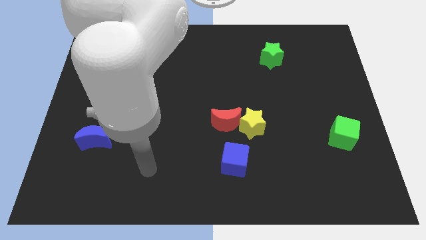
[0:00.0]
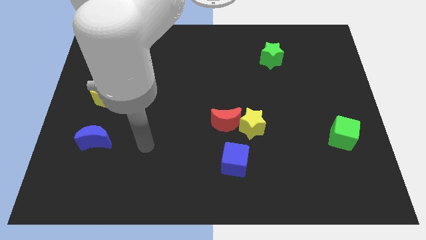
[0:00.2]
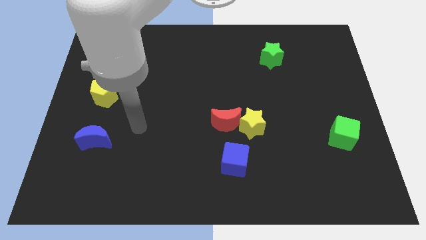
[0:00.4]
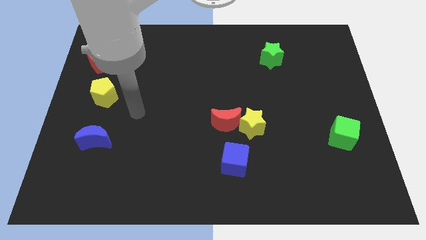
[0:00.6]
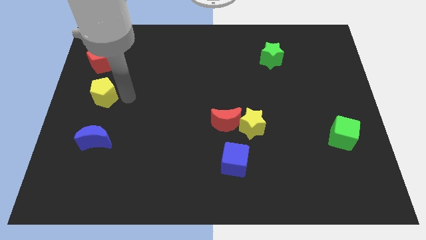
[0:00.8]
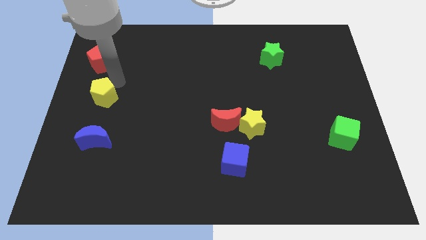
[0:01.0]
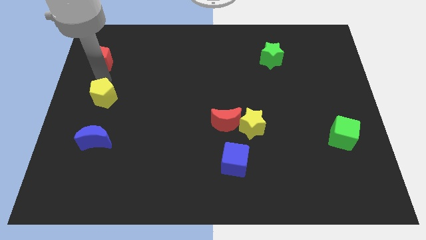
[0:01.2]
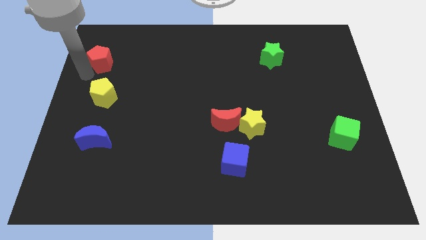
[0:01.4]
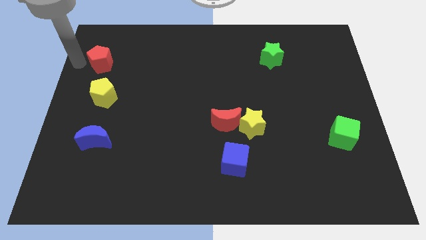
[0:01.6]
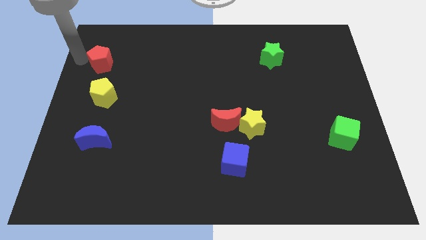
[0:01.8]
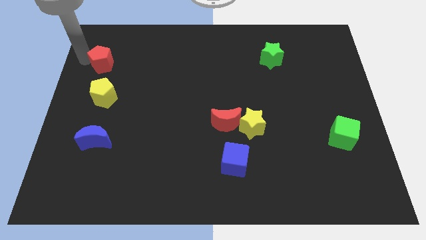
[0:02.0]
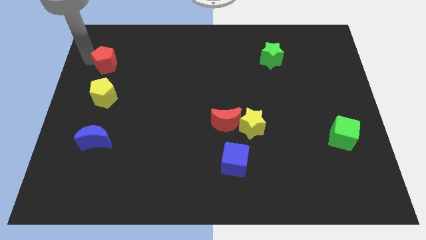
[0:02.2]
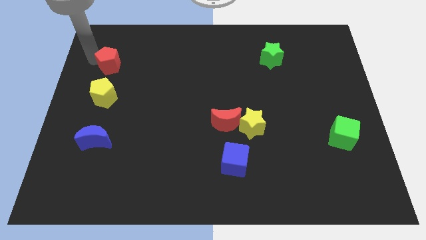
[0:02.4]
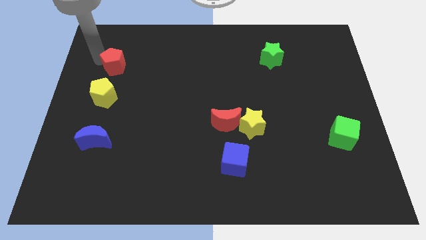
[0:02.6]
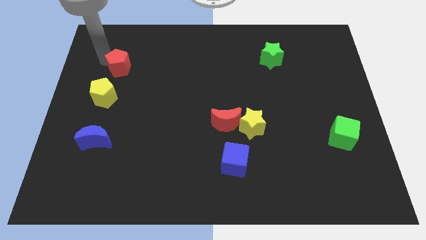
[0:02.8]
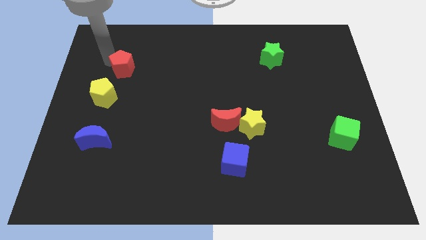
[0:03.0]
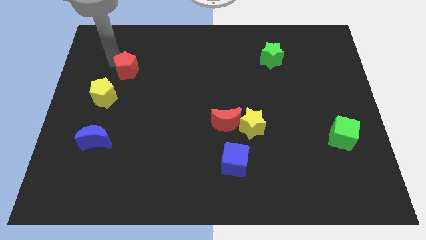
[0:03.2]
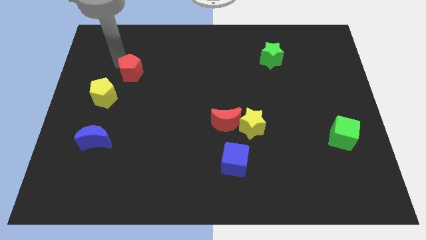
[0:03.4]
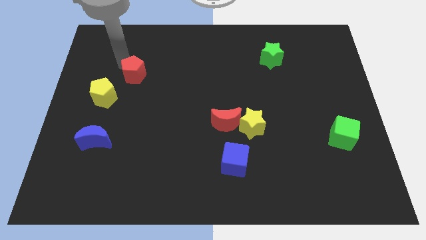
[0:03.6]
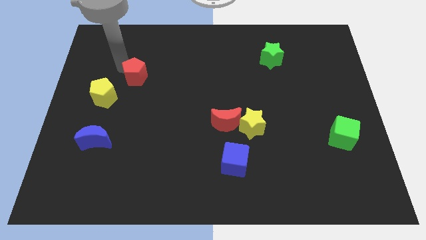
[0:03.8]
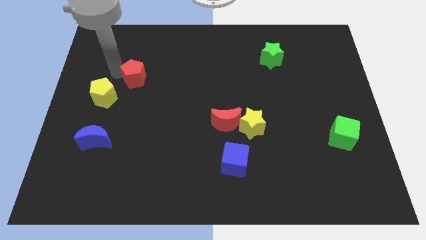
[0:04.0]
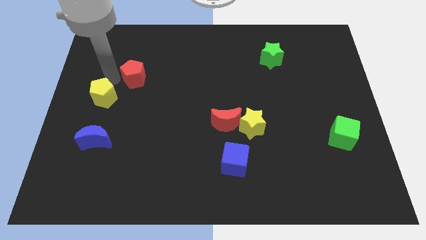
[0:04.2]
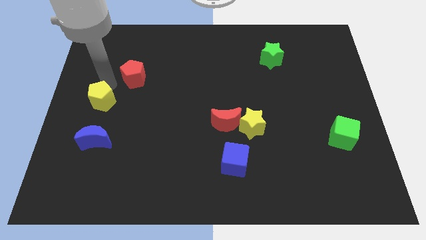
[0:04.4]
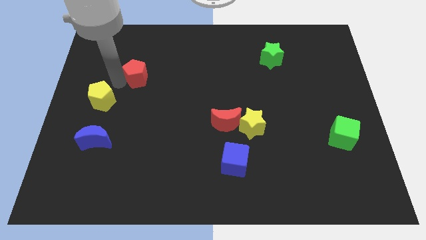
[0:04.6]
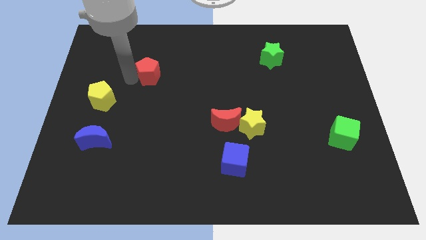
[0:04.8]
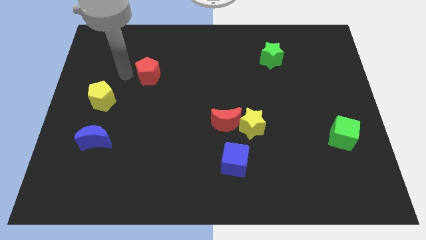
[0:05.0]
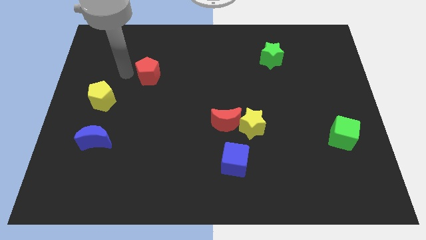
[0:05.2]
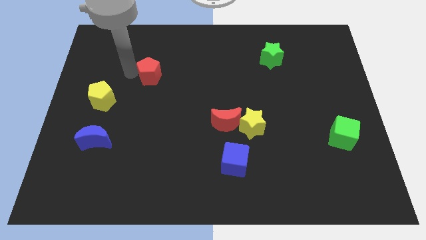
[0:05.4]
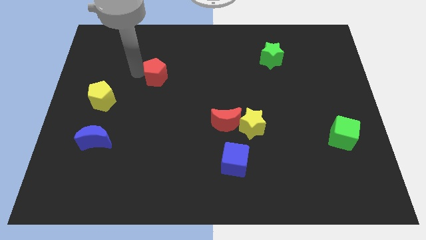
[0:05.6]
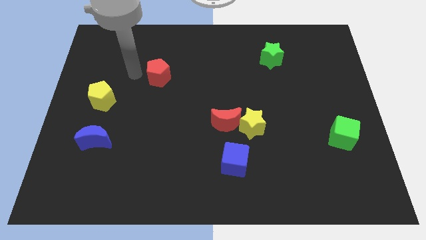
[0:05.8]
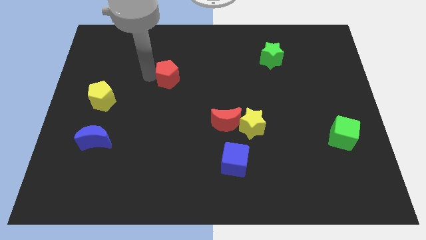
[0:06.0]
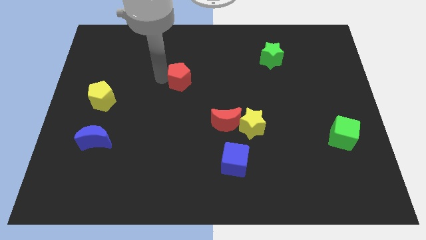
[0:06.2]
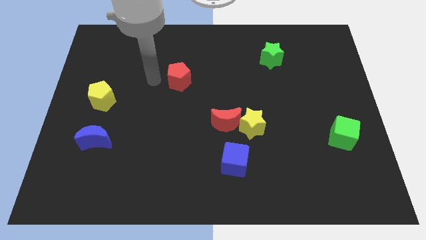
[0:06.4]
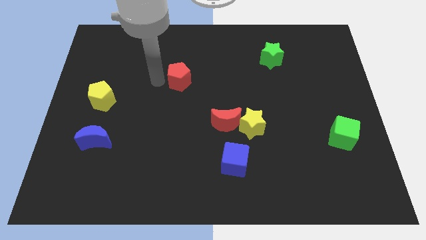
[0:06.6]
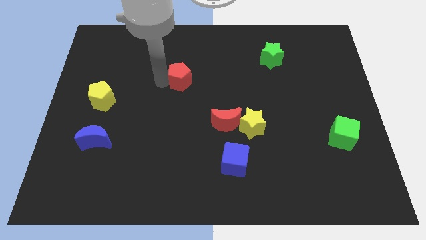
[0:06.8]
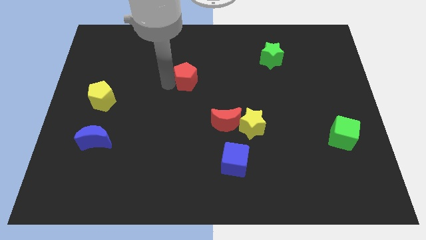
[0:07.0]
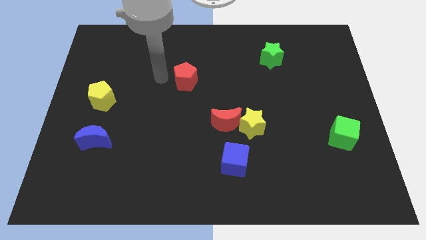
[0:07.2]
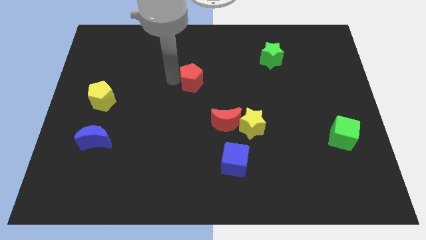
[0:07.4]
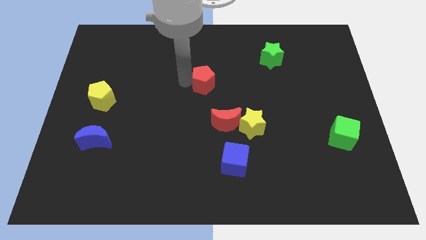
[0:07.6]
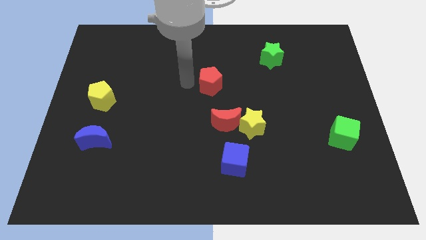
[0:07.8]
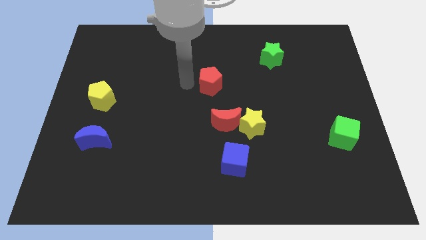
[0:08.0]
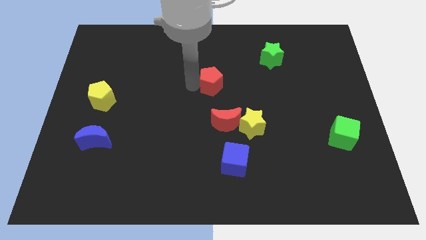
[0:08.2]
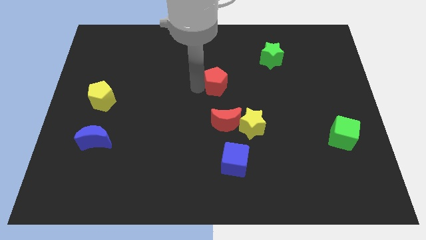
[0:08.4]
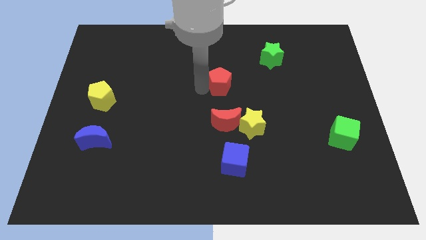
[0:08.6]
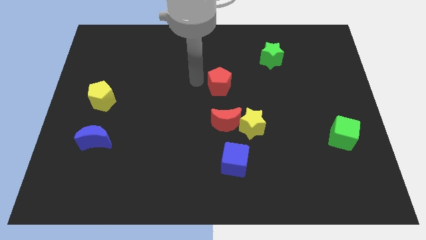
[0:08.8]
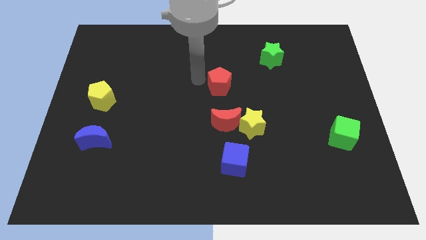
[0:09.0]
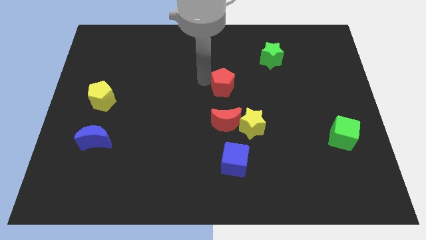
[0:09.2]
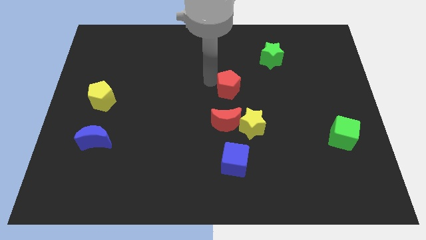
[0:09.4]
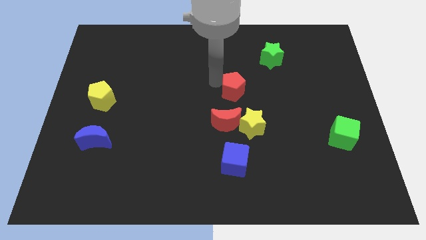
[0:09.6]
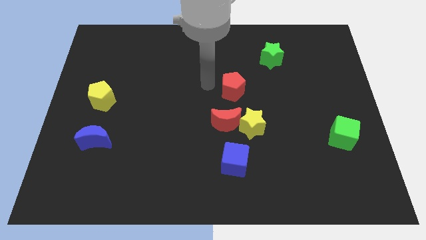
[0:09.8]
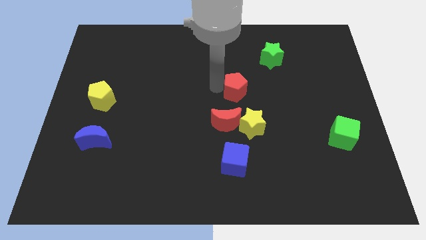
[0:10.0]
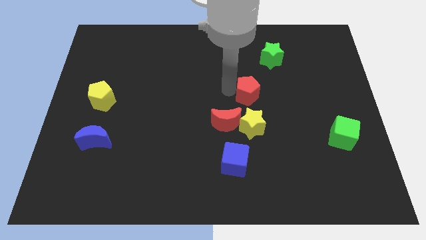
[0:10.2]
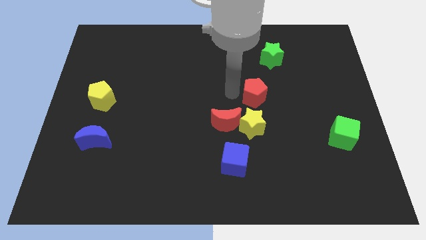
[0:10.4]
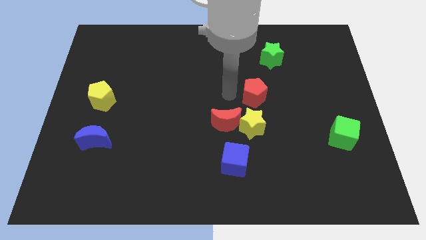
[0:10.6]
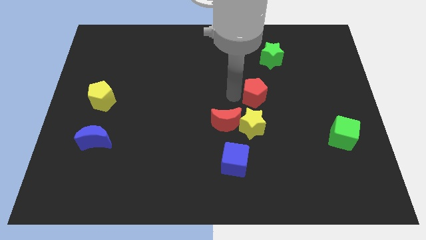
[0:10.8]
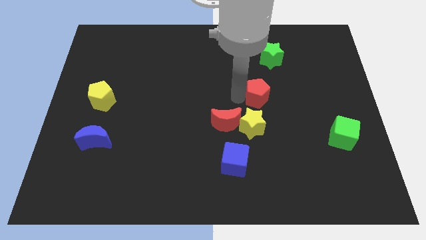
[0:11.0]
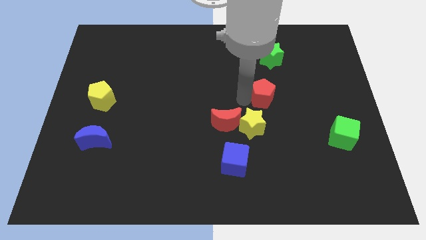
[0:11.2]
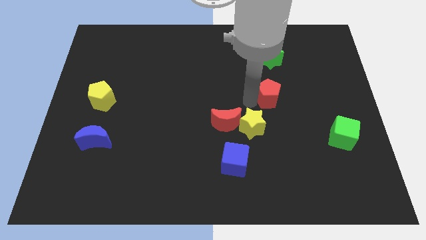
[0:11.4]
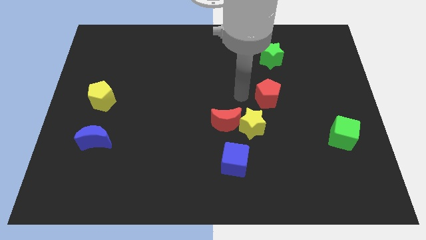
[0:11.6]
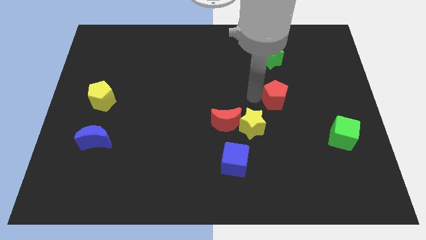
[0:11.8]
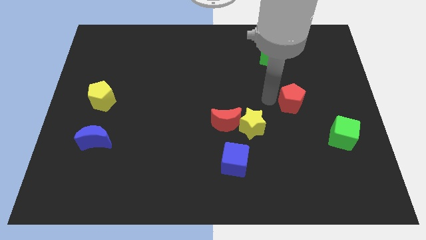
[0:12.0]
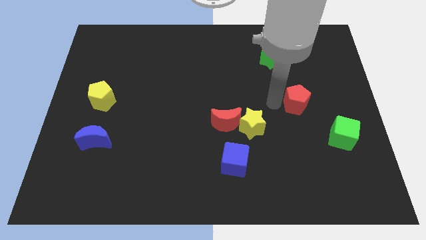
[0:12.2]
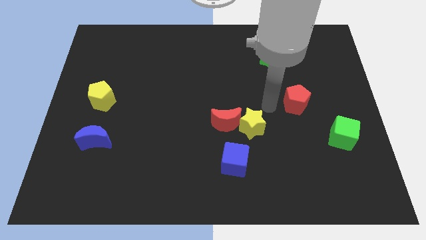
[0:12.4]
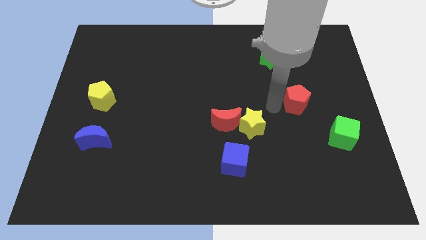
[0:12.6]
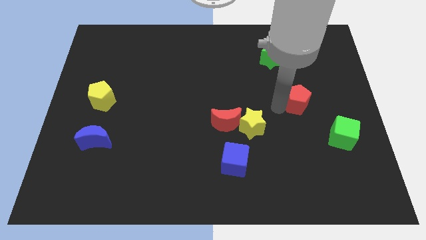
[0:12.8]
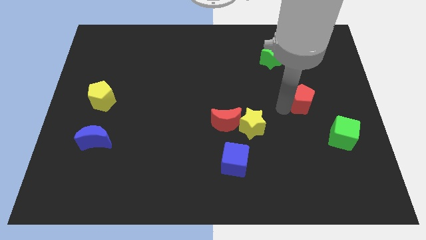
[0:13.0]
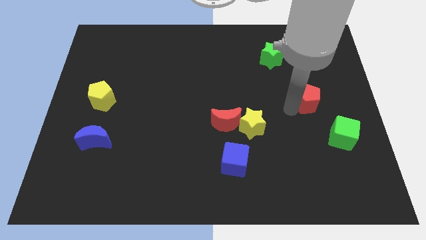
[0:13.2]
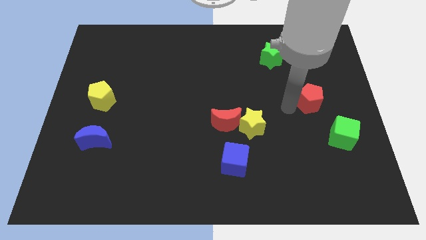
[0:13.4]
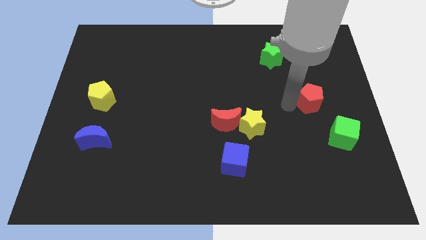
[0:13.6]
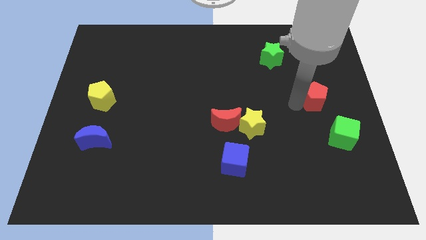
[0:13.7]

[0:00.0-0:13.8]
move the red pentagon above the green cube

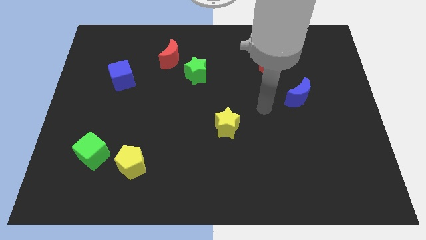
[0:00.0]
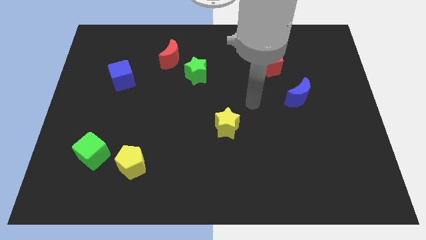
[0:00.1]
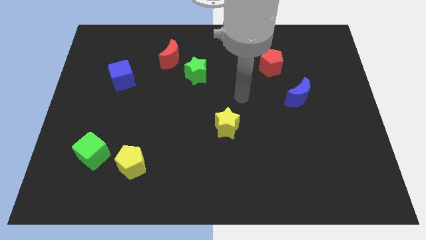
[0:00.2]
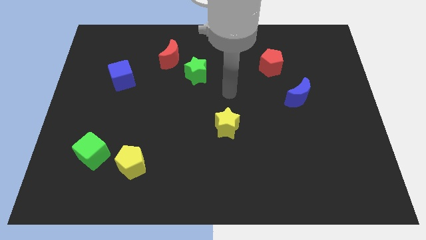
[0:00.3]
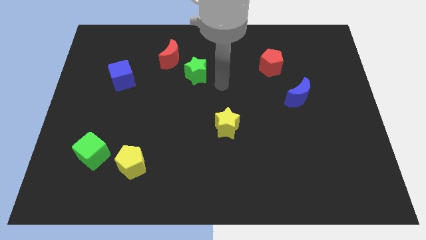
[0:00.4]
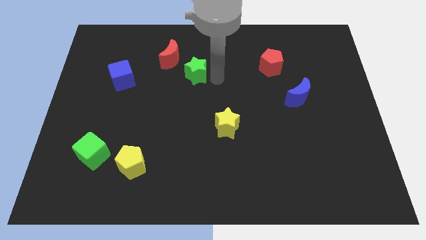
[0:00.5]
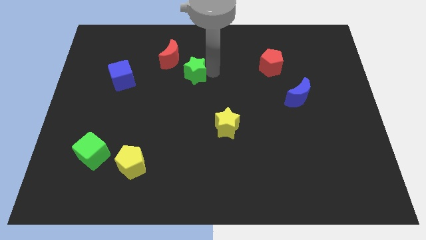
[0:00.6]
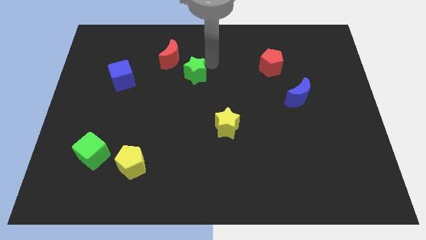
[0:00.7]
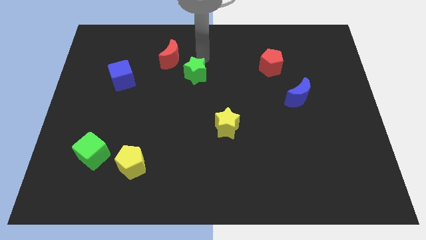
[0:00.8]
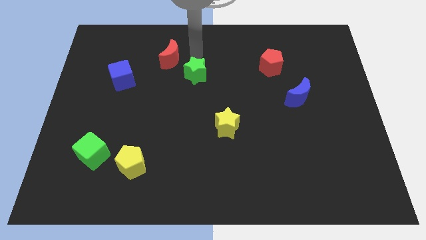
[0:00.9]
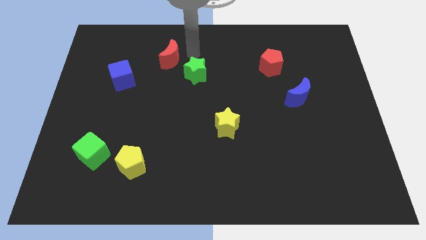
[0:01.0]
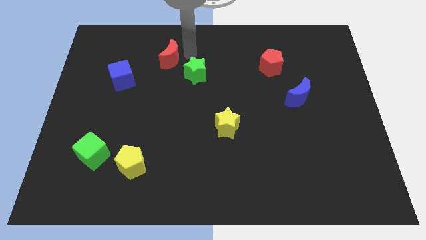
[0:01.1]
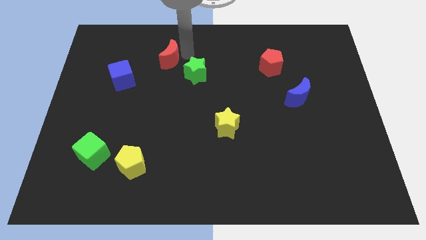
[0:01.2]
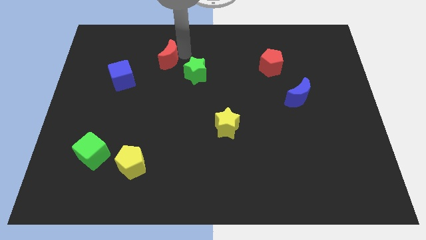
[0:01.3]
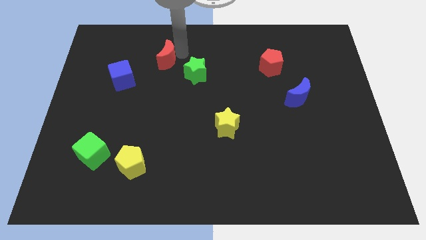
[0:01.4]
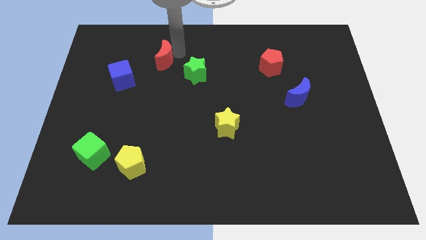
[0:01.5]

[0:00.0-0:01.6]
move the red moon to the top right side of the blue cube
